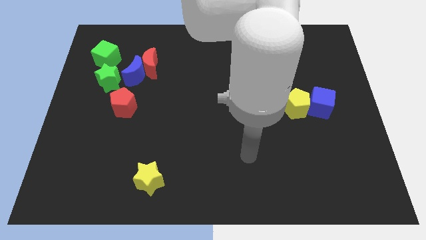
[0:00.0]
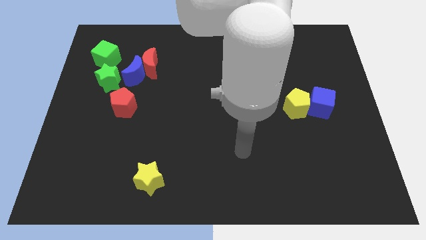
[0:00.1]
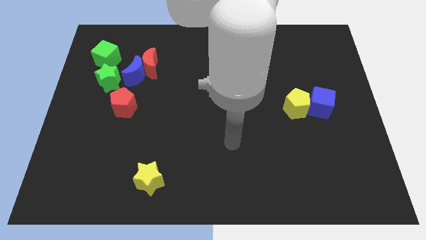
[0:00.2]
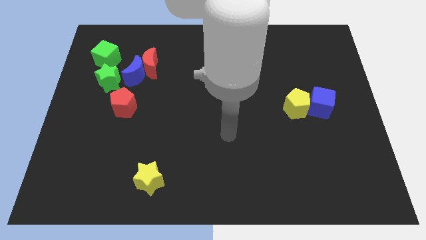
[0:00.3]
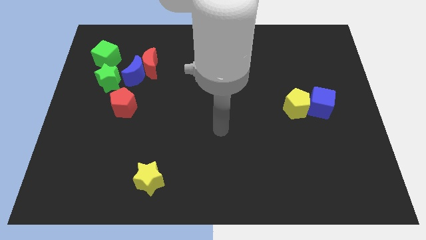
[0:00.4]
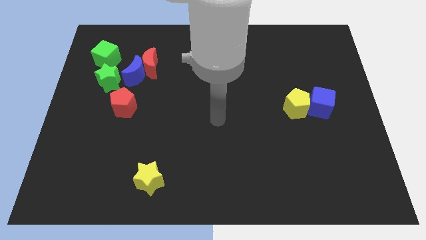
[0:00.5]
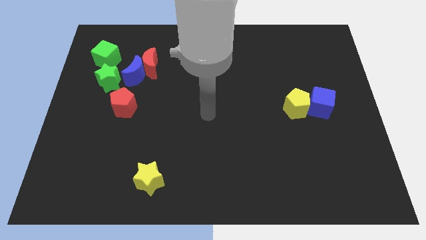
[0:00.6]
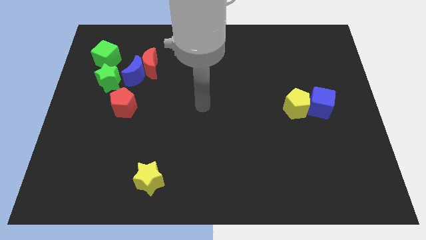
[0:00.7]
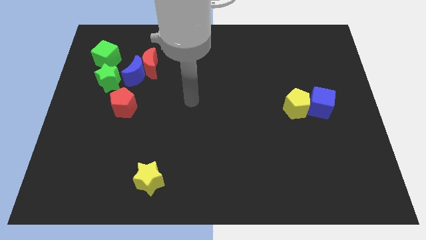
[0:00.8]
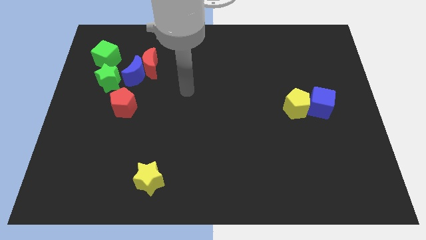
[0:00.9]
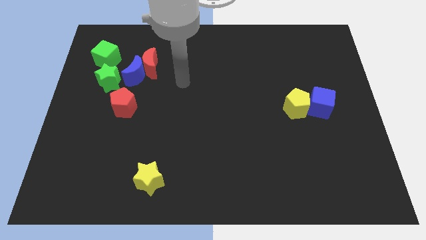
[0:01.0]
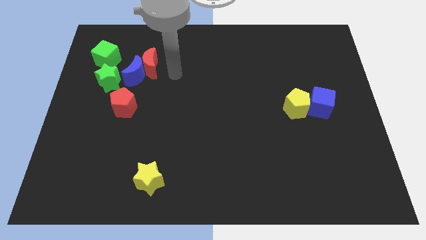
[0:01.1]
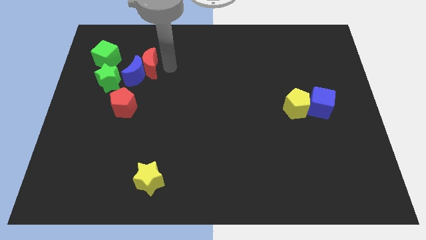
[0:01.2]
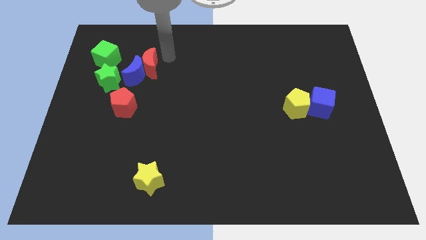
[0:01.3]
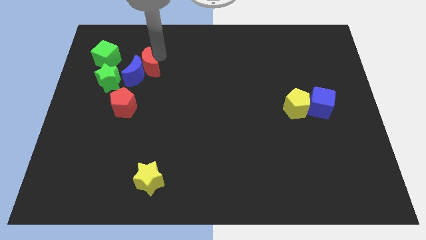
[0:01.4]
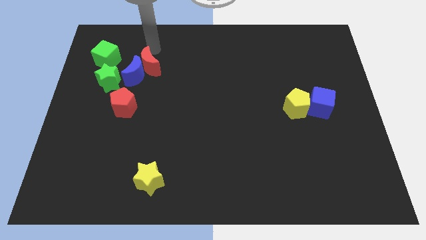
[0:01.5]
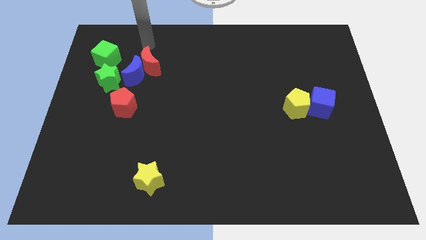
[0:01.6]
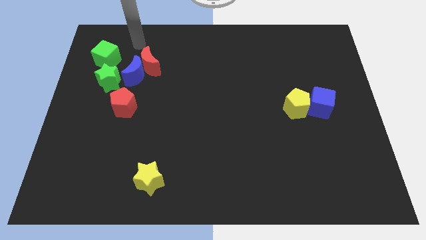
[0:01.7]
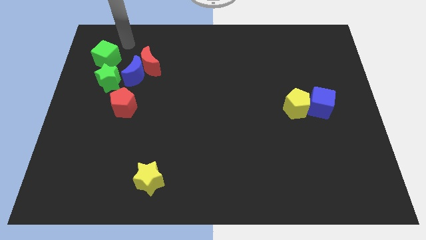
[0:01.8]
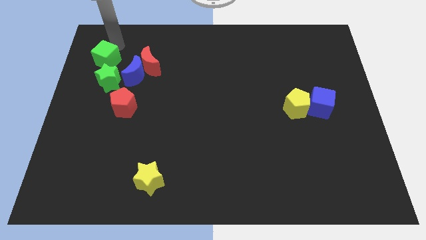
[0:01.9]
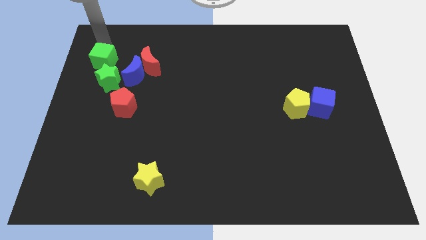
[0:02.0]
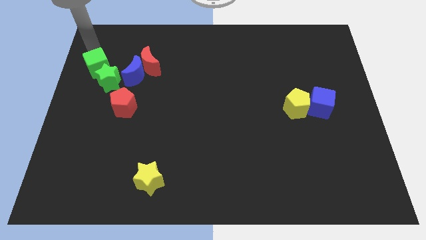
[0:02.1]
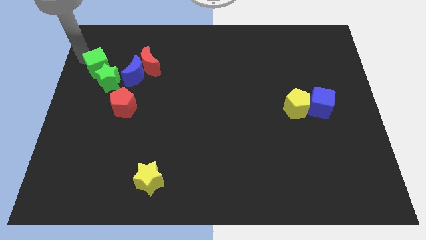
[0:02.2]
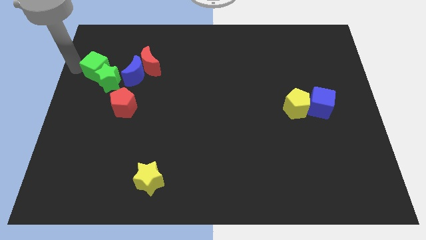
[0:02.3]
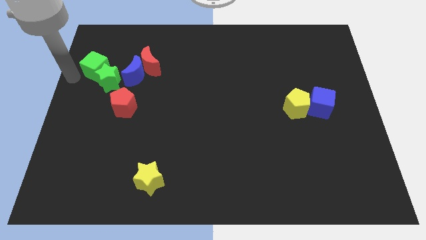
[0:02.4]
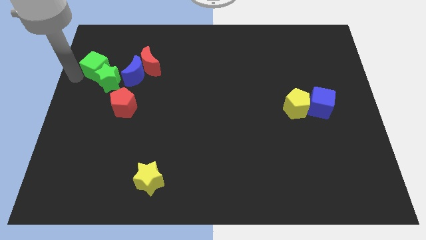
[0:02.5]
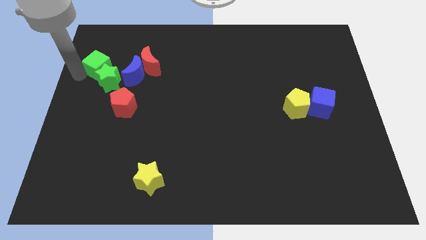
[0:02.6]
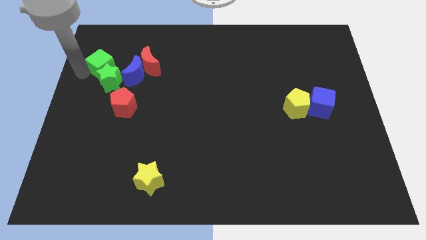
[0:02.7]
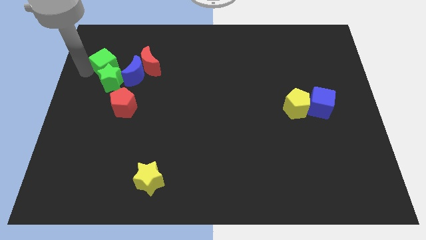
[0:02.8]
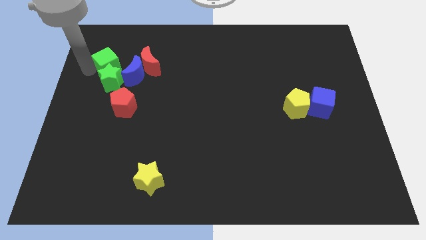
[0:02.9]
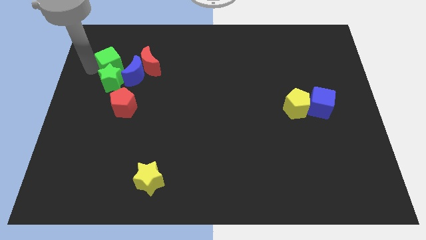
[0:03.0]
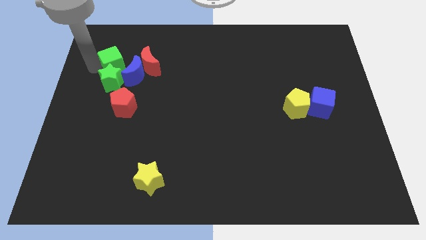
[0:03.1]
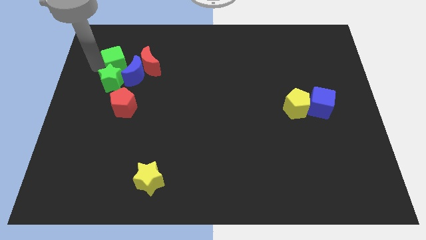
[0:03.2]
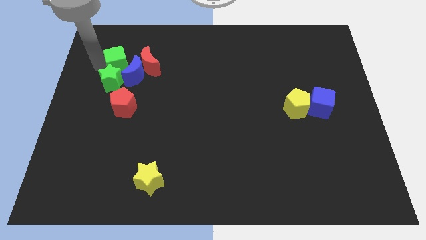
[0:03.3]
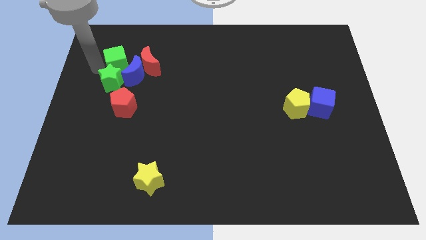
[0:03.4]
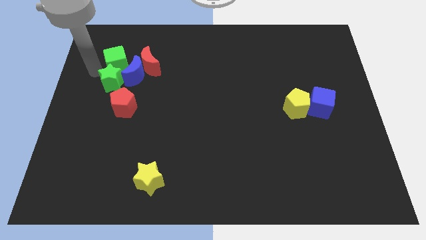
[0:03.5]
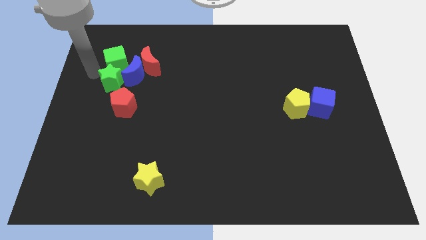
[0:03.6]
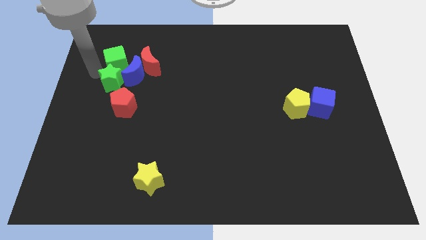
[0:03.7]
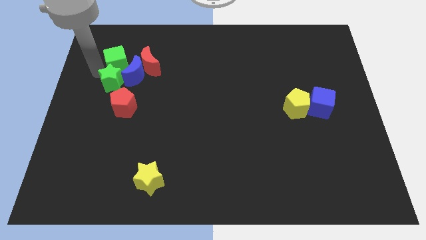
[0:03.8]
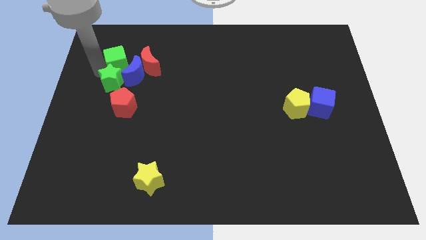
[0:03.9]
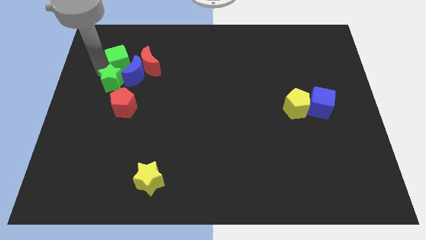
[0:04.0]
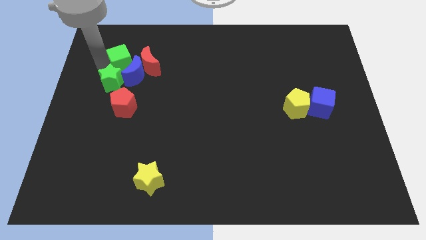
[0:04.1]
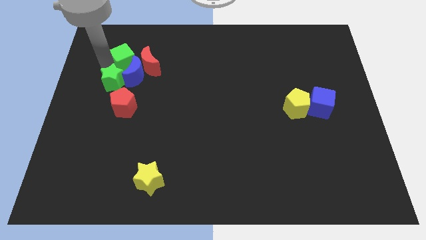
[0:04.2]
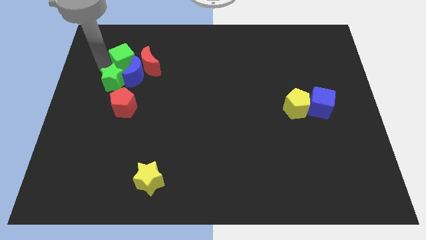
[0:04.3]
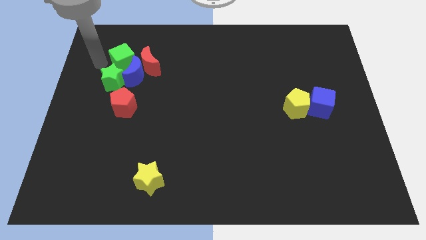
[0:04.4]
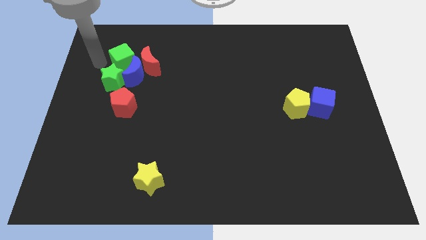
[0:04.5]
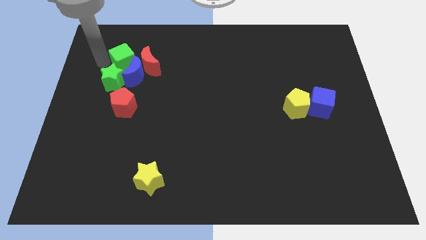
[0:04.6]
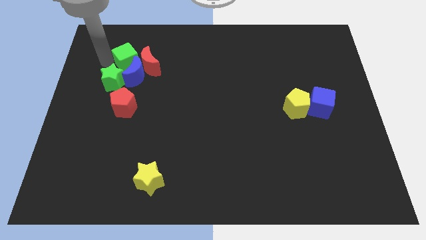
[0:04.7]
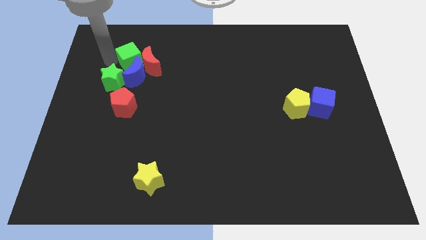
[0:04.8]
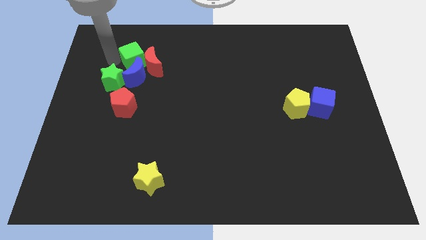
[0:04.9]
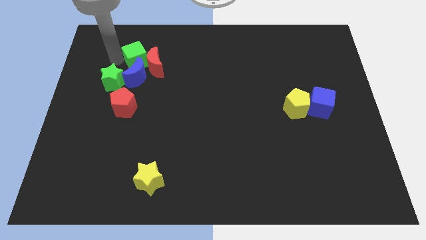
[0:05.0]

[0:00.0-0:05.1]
move the green cube to the top right of the blue moon

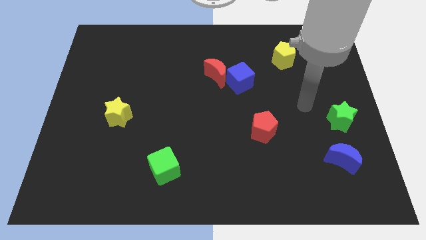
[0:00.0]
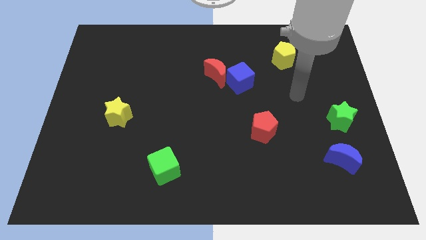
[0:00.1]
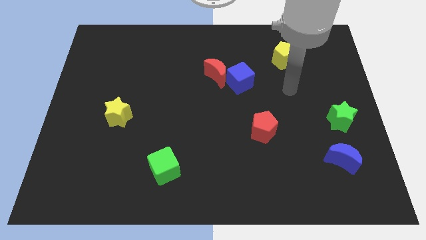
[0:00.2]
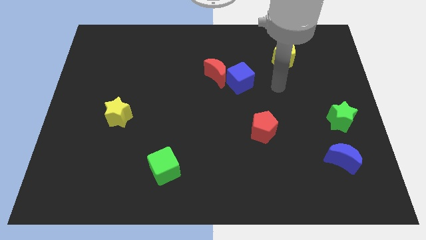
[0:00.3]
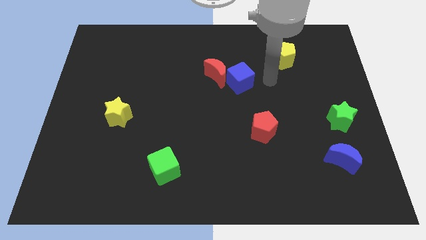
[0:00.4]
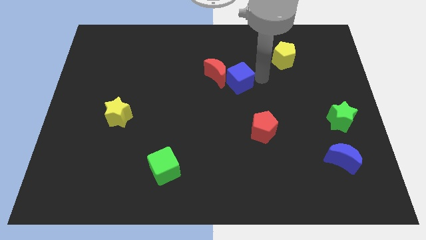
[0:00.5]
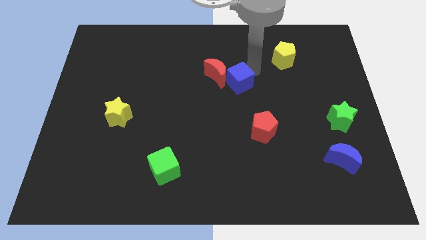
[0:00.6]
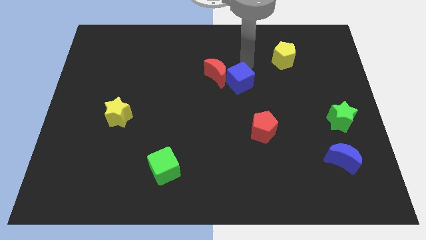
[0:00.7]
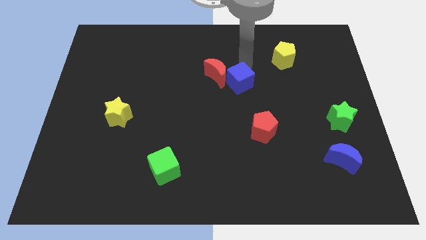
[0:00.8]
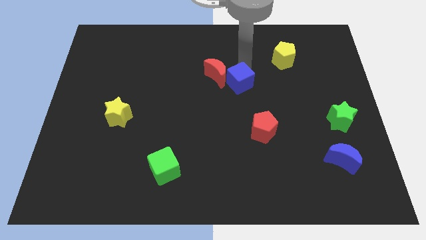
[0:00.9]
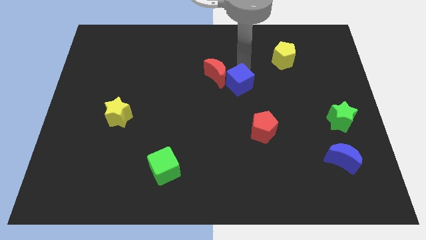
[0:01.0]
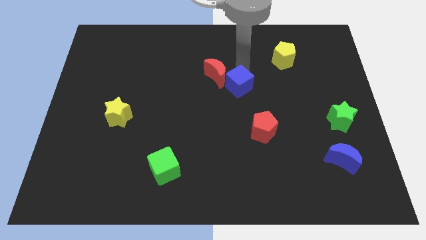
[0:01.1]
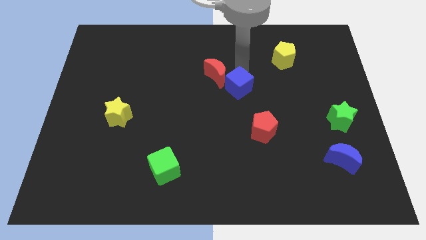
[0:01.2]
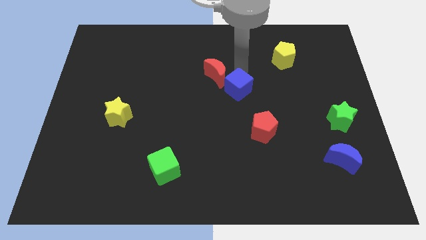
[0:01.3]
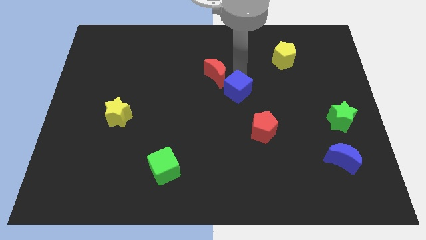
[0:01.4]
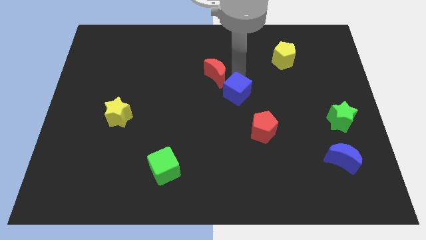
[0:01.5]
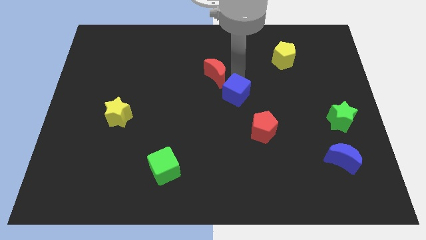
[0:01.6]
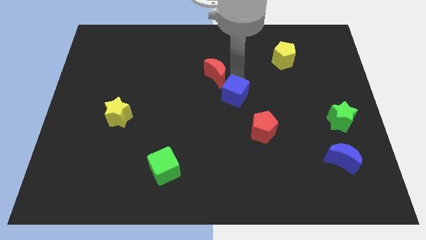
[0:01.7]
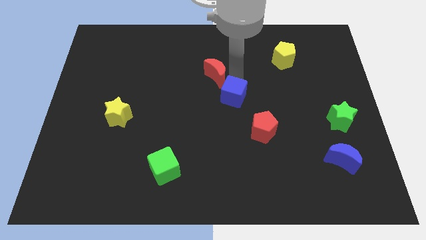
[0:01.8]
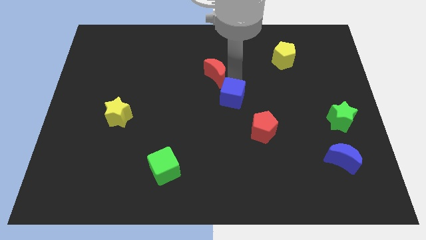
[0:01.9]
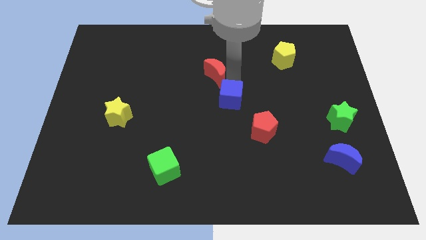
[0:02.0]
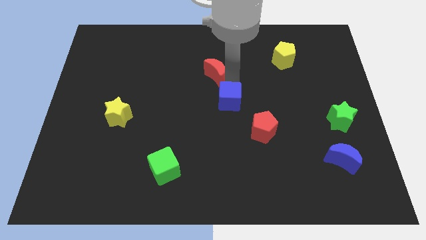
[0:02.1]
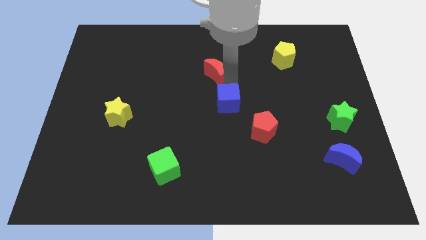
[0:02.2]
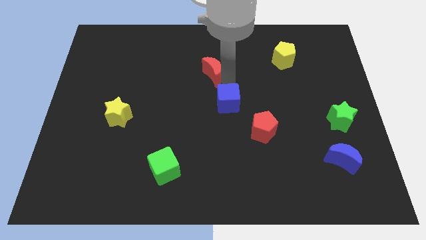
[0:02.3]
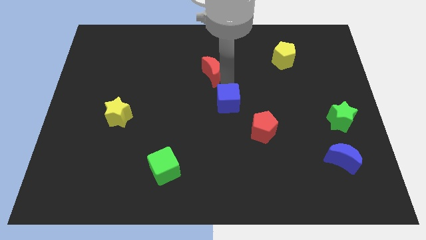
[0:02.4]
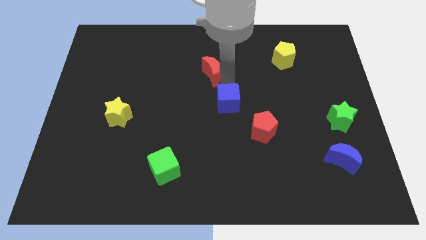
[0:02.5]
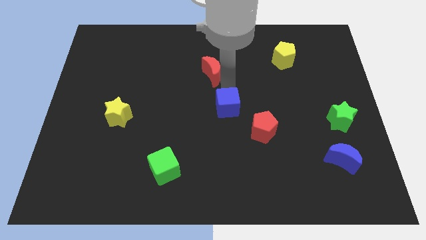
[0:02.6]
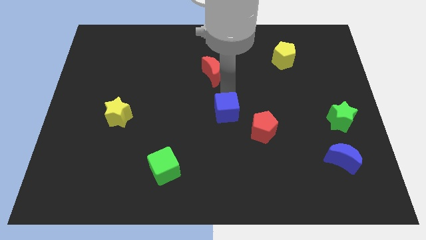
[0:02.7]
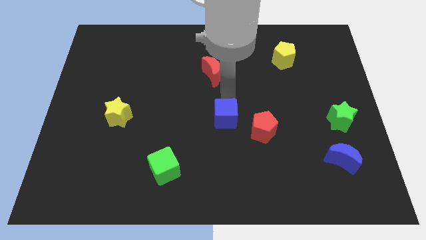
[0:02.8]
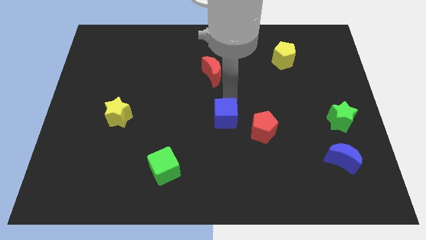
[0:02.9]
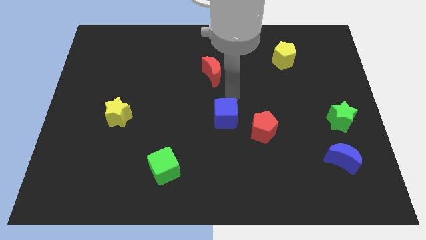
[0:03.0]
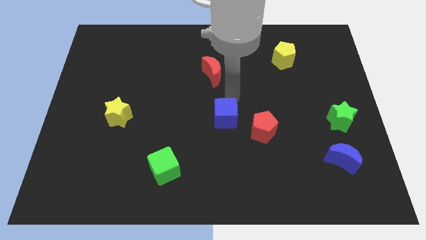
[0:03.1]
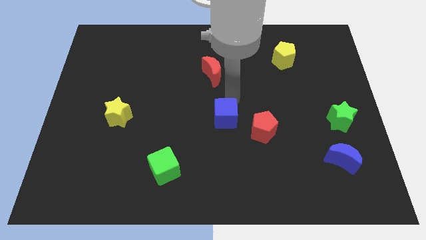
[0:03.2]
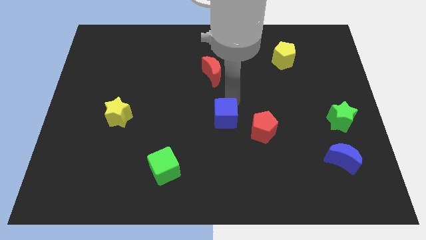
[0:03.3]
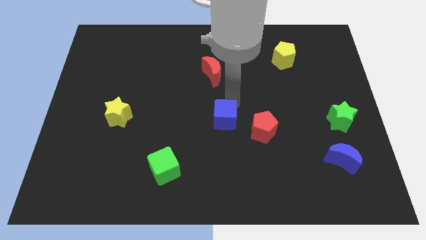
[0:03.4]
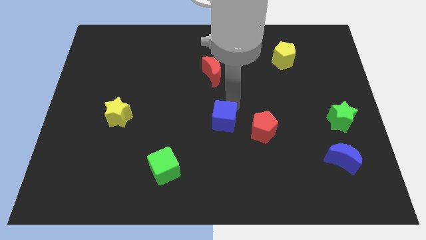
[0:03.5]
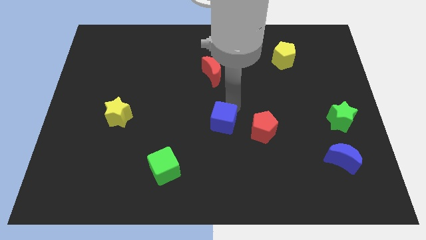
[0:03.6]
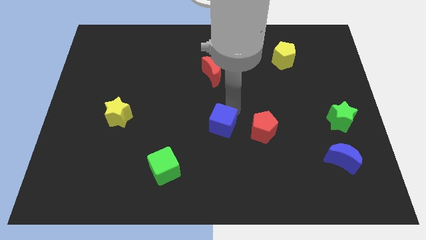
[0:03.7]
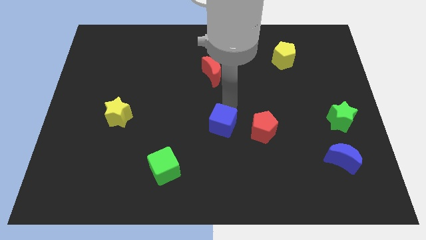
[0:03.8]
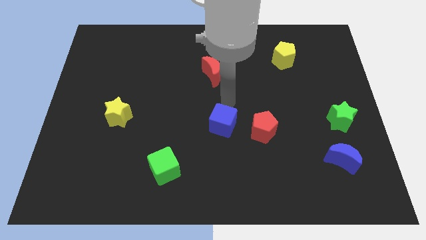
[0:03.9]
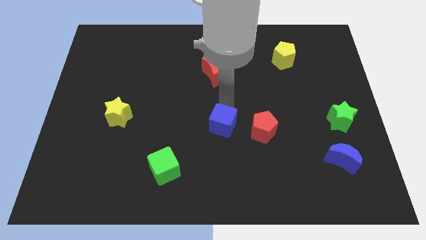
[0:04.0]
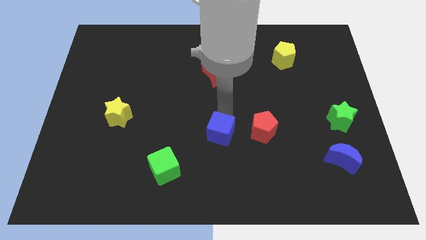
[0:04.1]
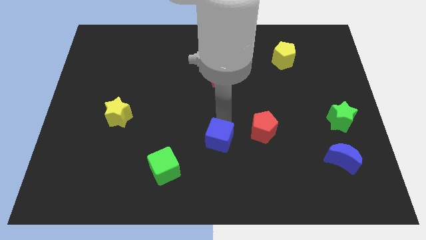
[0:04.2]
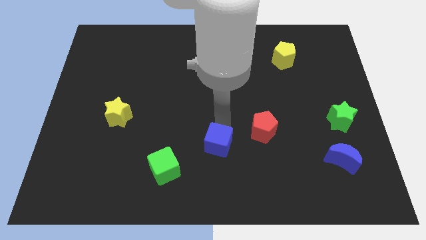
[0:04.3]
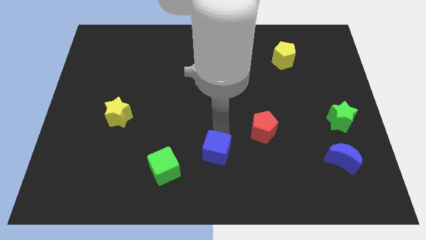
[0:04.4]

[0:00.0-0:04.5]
slide the blue cube right of the green cube
